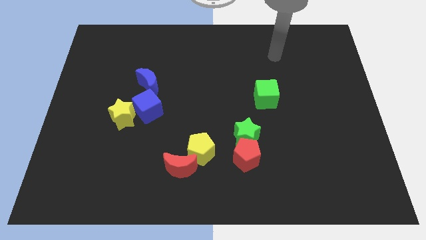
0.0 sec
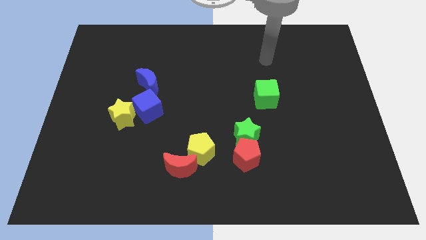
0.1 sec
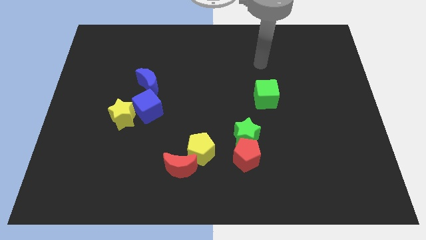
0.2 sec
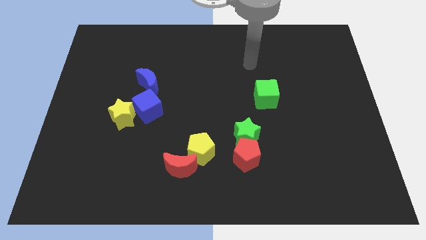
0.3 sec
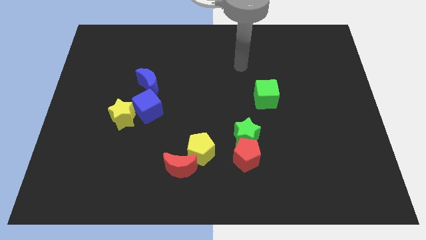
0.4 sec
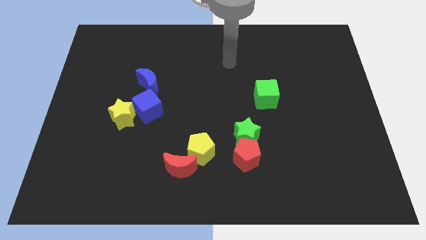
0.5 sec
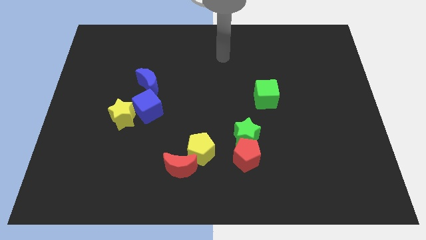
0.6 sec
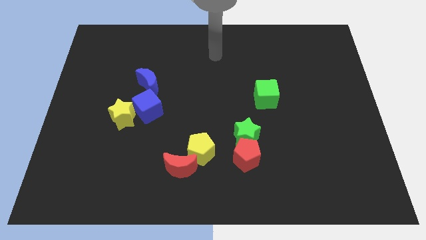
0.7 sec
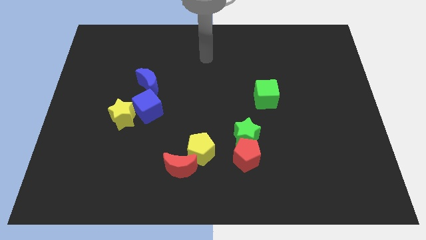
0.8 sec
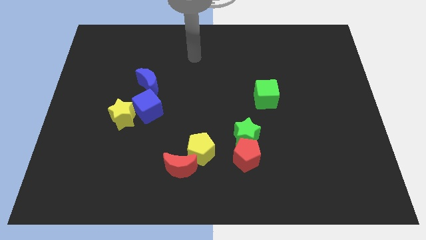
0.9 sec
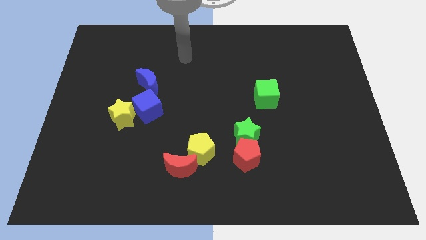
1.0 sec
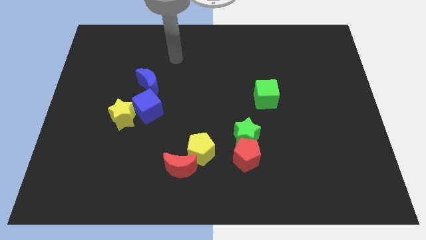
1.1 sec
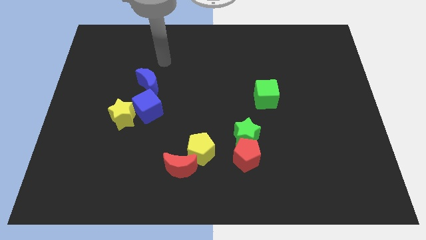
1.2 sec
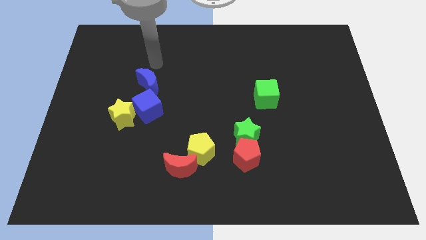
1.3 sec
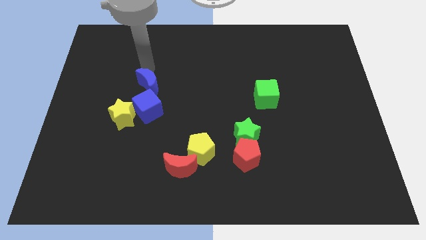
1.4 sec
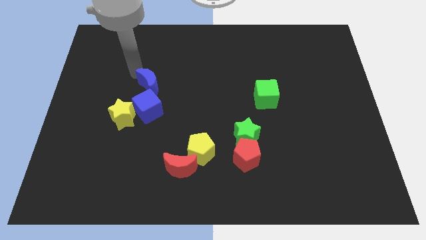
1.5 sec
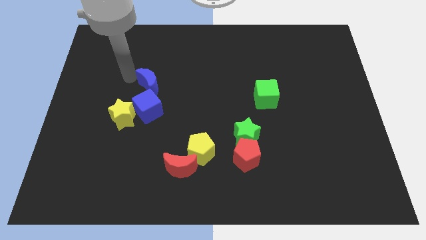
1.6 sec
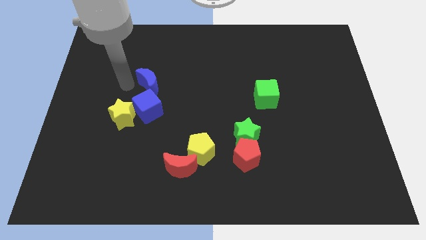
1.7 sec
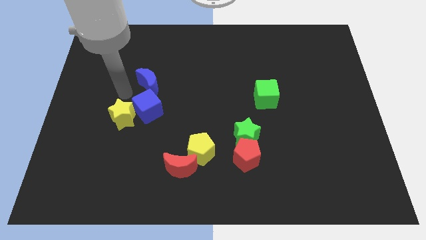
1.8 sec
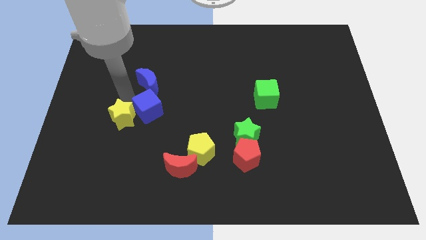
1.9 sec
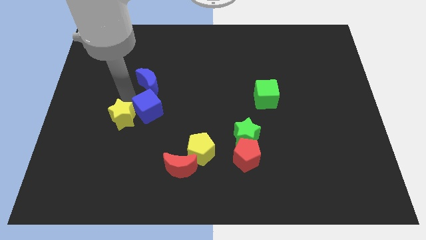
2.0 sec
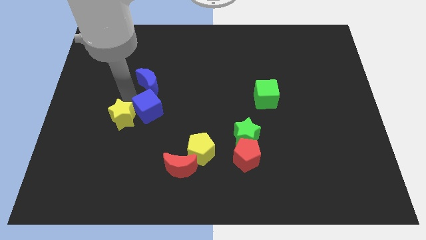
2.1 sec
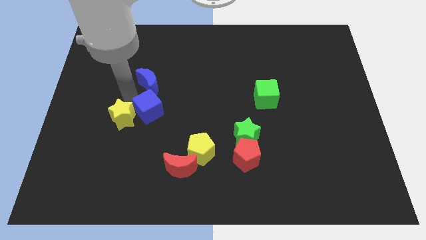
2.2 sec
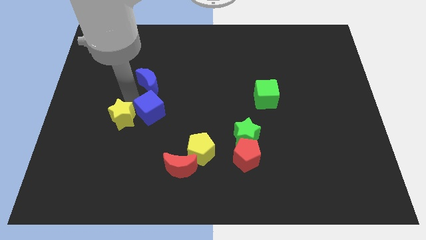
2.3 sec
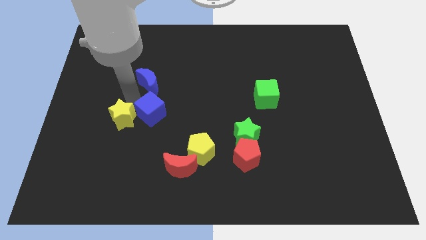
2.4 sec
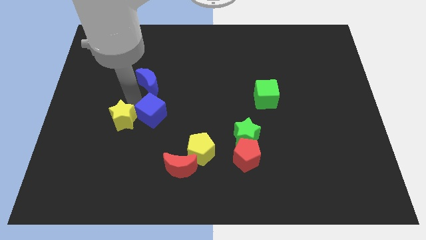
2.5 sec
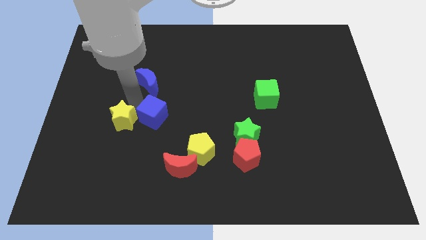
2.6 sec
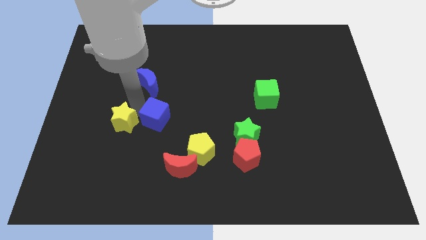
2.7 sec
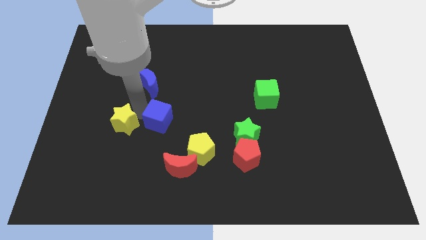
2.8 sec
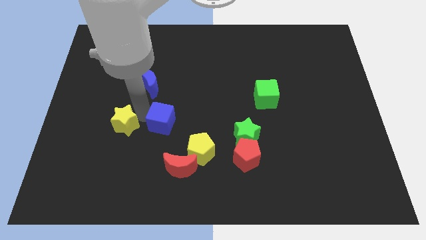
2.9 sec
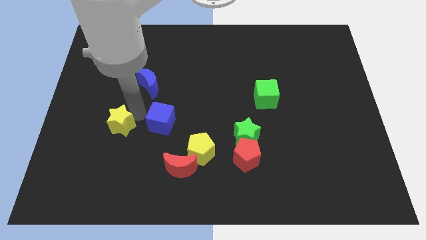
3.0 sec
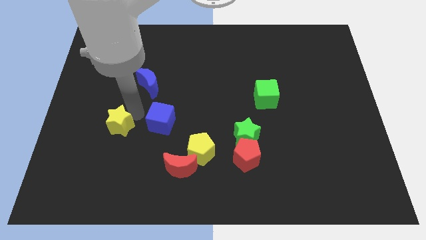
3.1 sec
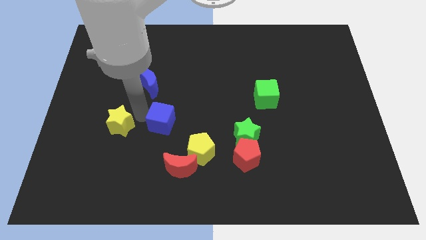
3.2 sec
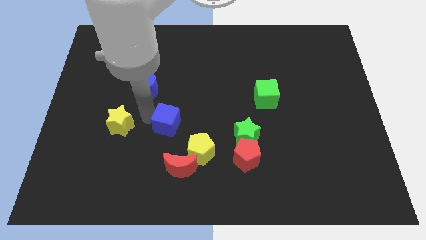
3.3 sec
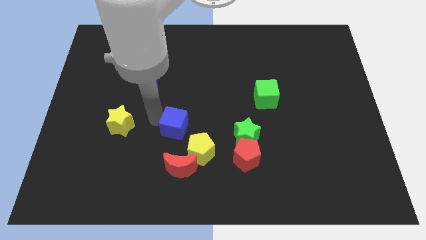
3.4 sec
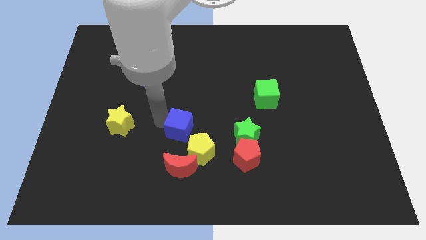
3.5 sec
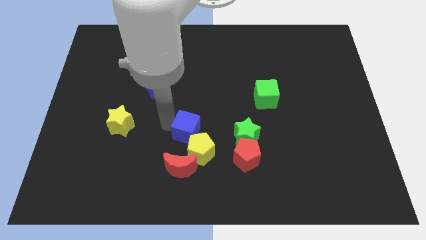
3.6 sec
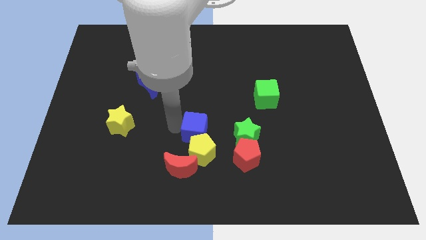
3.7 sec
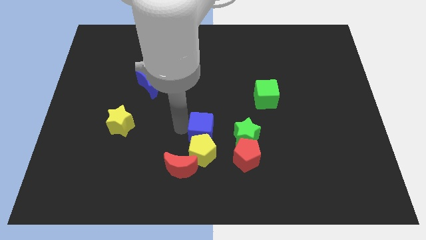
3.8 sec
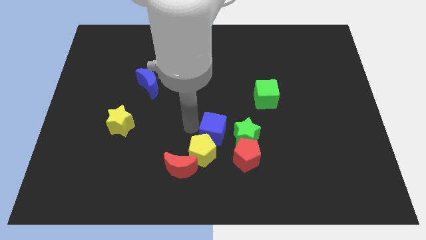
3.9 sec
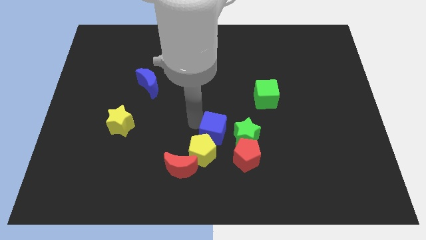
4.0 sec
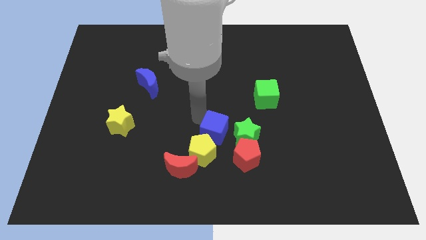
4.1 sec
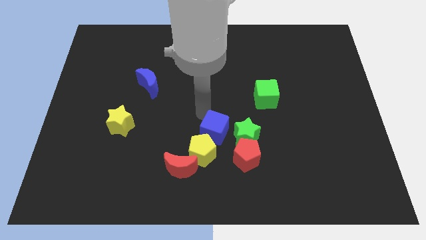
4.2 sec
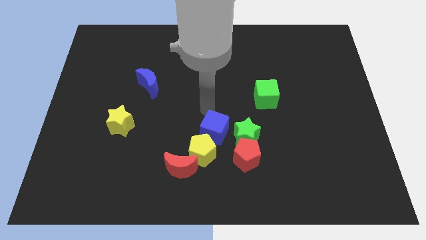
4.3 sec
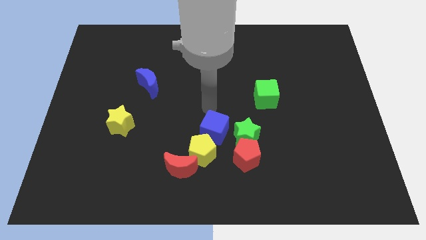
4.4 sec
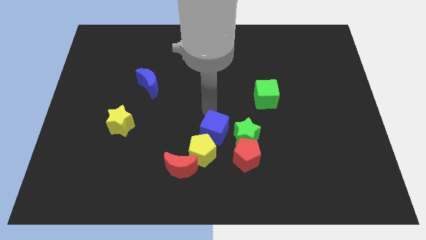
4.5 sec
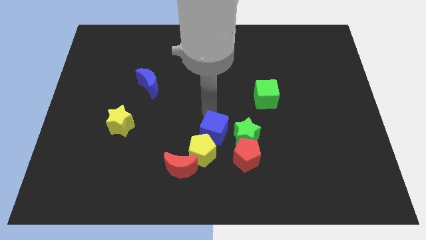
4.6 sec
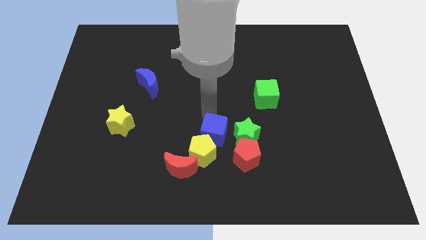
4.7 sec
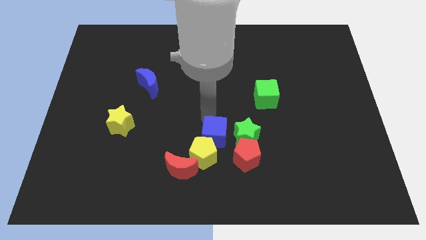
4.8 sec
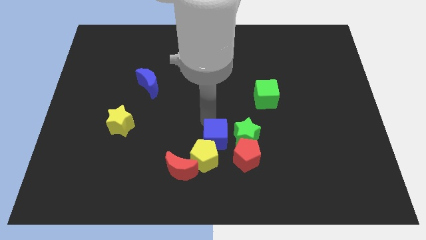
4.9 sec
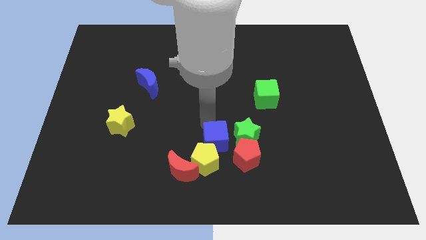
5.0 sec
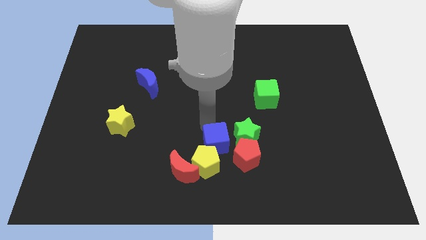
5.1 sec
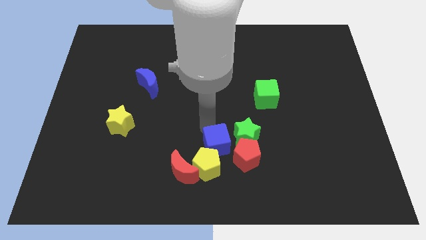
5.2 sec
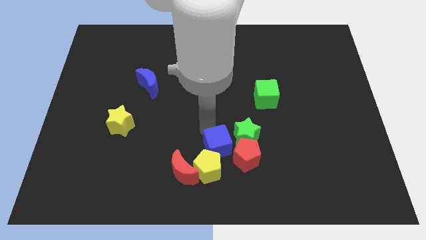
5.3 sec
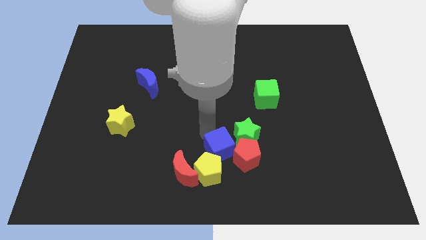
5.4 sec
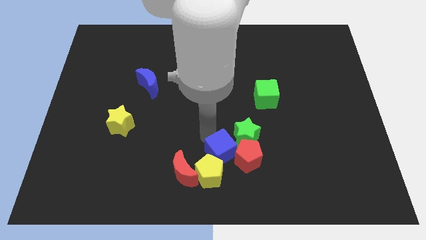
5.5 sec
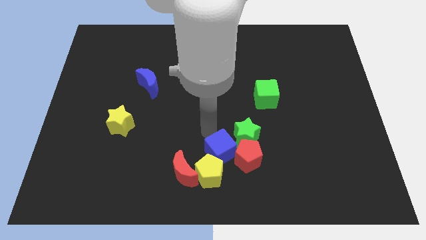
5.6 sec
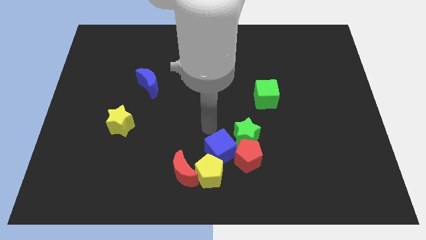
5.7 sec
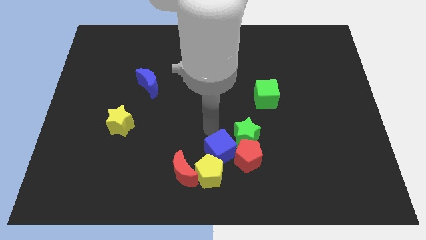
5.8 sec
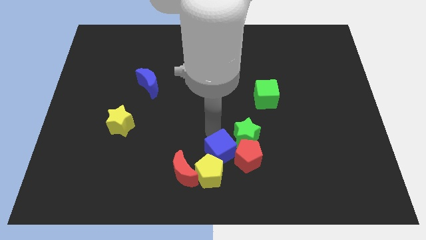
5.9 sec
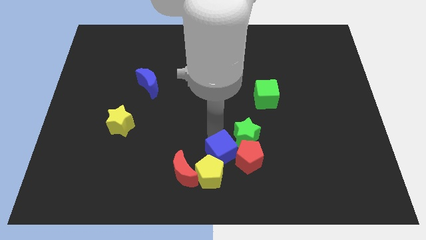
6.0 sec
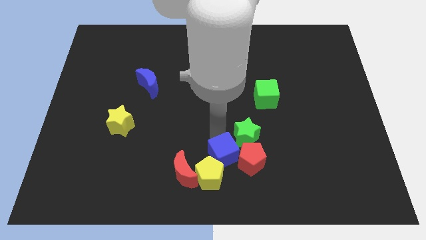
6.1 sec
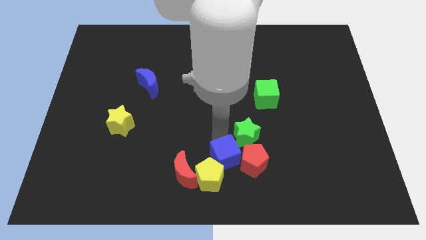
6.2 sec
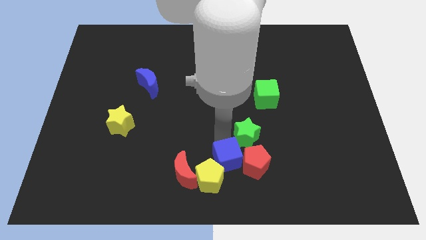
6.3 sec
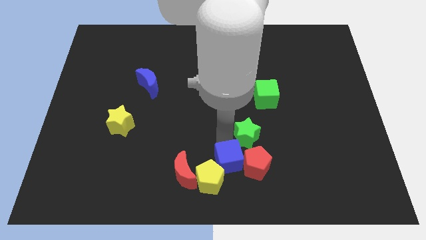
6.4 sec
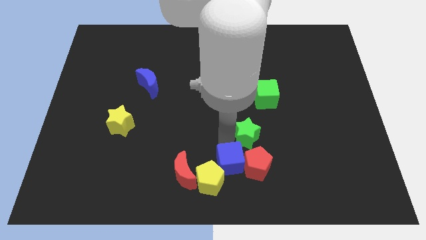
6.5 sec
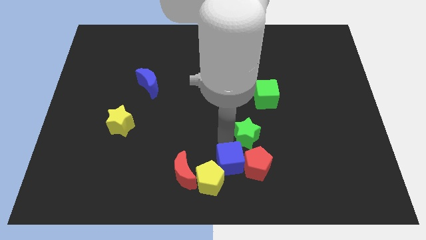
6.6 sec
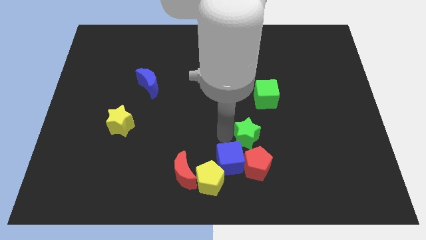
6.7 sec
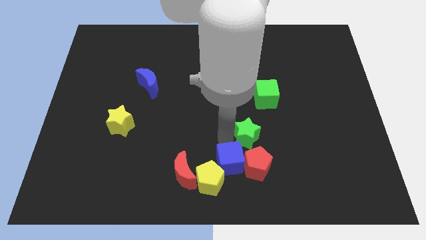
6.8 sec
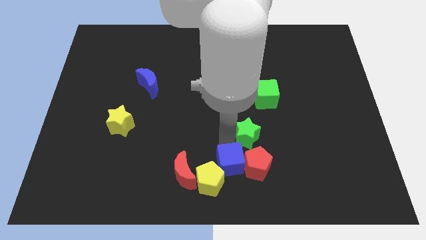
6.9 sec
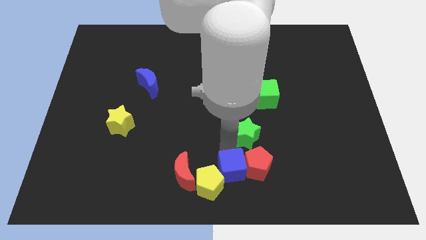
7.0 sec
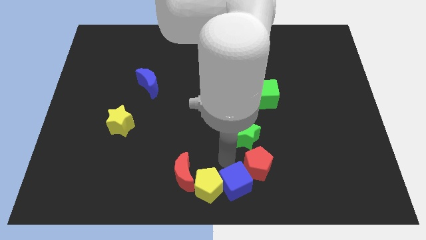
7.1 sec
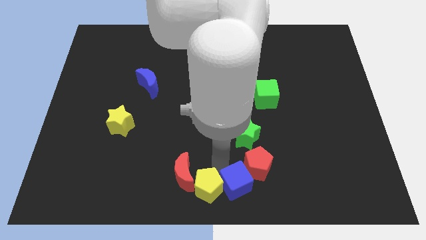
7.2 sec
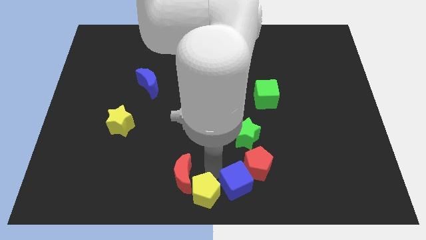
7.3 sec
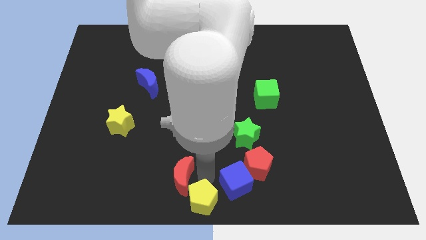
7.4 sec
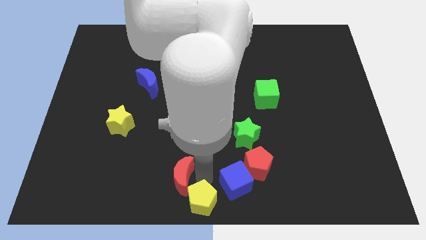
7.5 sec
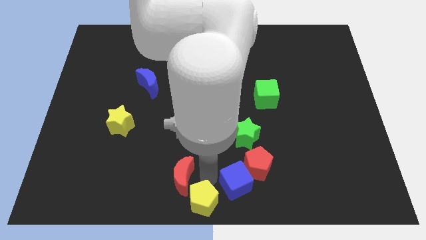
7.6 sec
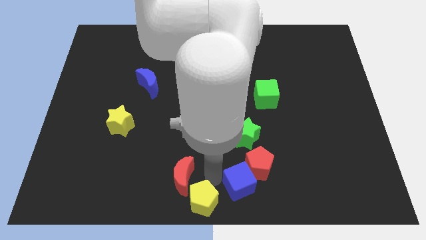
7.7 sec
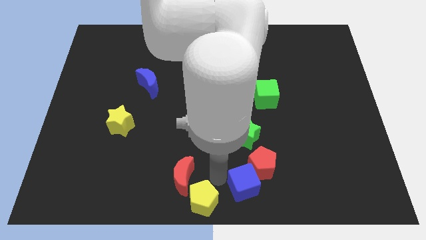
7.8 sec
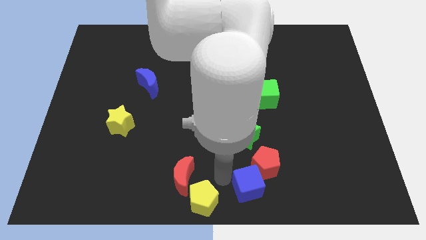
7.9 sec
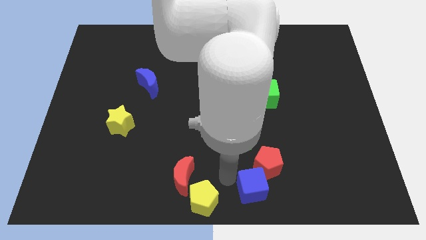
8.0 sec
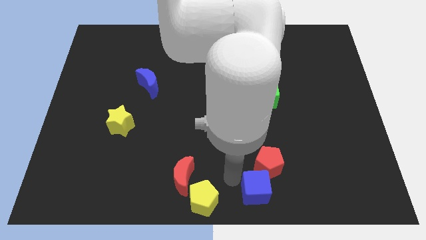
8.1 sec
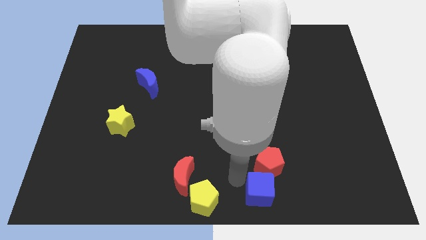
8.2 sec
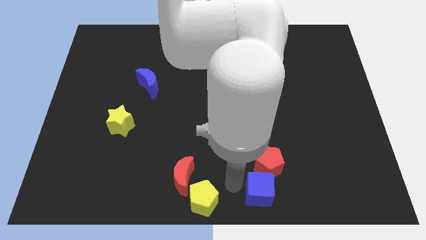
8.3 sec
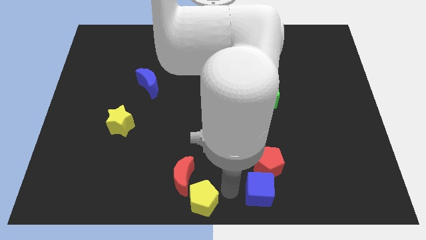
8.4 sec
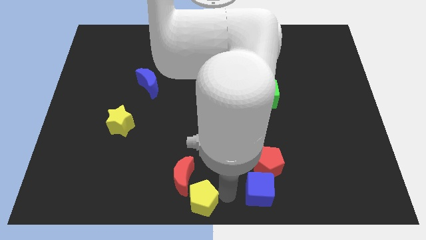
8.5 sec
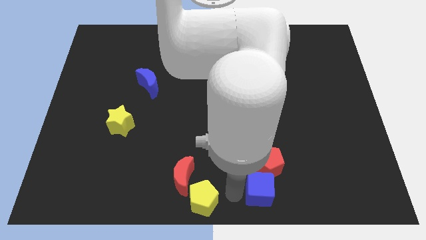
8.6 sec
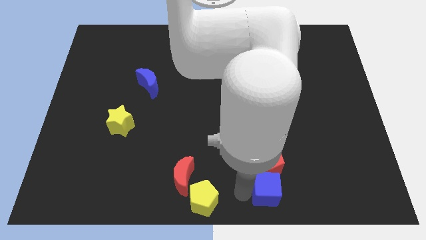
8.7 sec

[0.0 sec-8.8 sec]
slide the blue cube to the bottom right side of the red pentagon

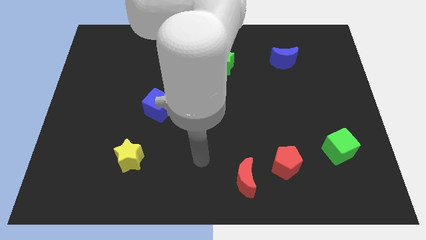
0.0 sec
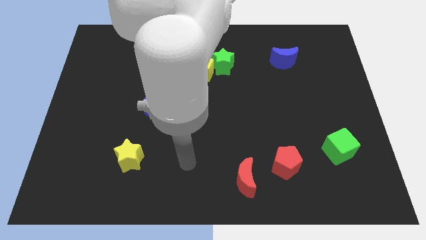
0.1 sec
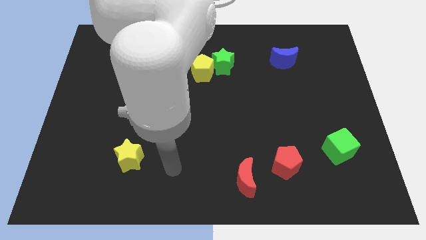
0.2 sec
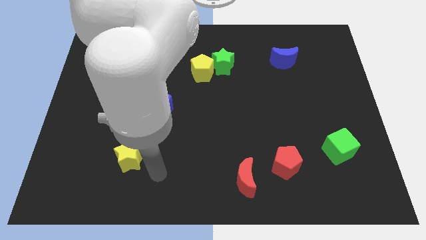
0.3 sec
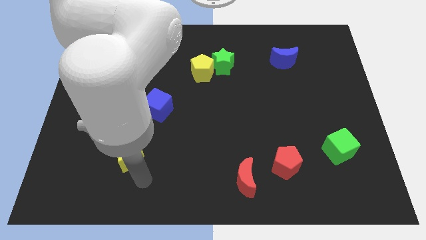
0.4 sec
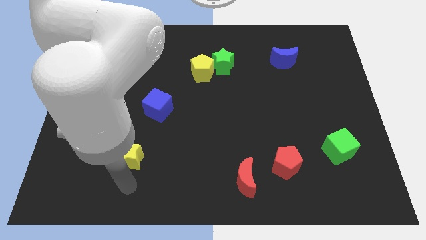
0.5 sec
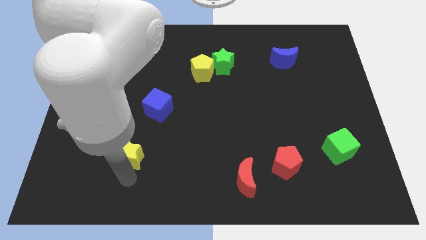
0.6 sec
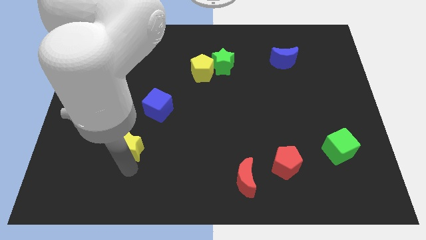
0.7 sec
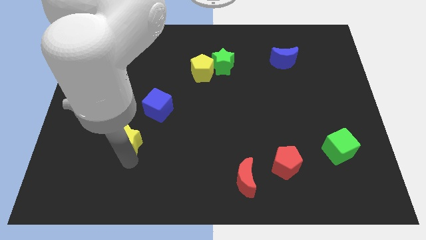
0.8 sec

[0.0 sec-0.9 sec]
push the yellow star to the bottom left side of the blue cube
